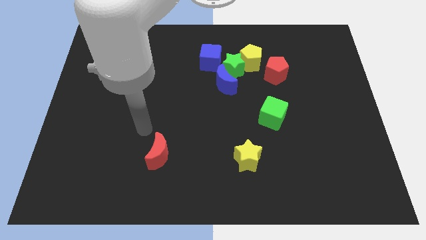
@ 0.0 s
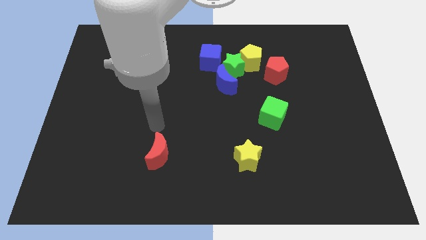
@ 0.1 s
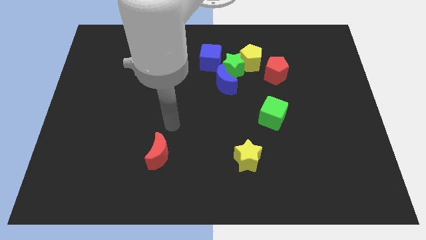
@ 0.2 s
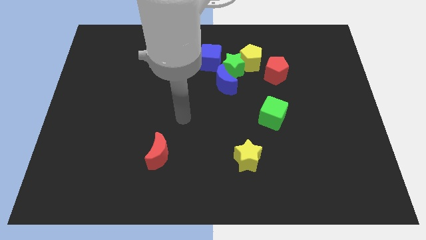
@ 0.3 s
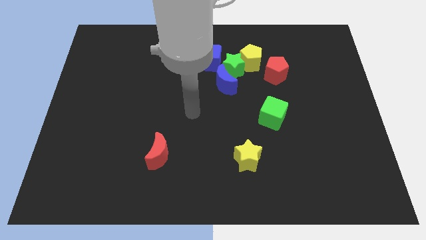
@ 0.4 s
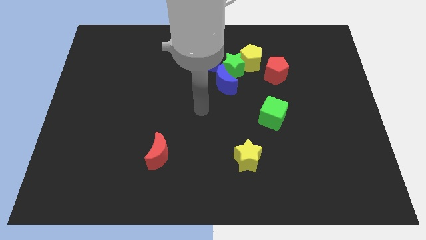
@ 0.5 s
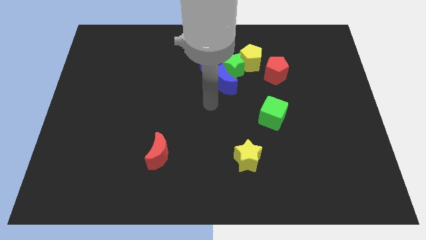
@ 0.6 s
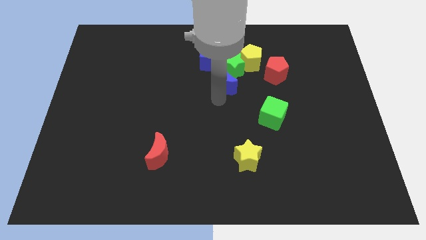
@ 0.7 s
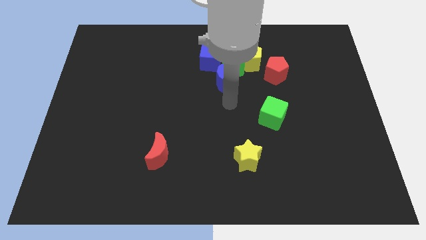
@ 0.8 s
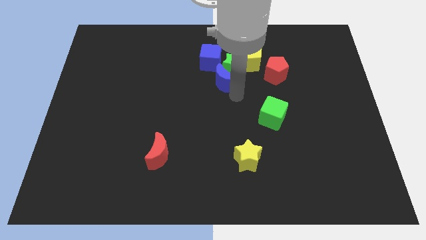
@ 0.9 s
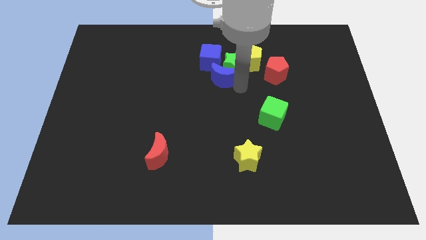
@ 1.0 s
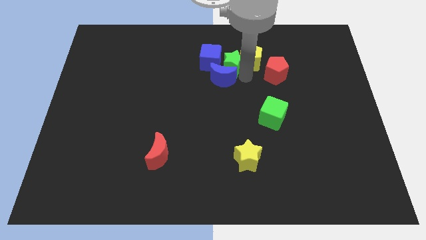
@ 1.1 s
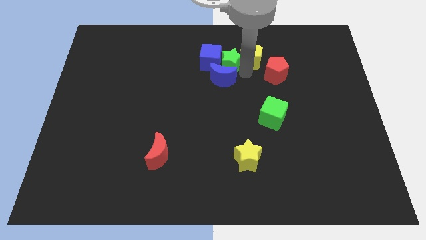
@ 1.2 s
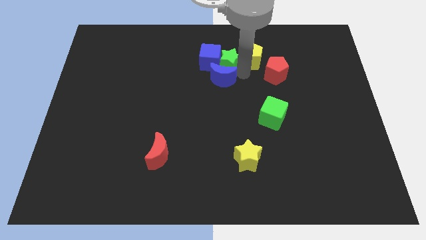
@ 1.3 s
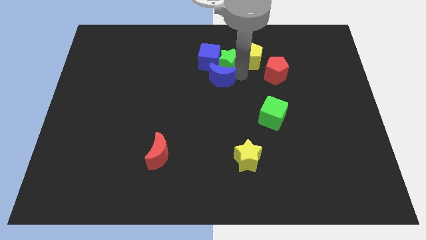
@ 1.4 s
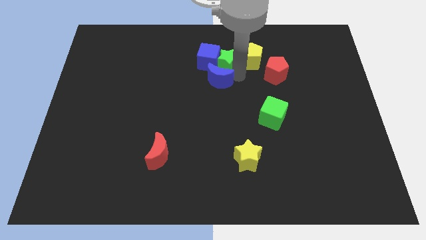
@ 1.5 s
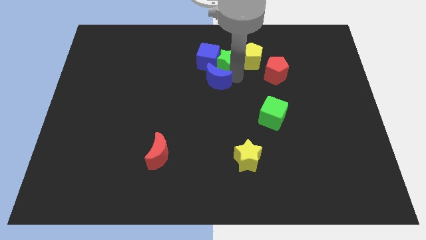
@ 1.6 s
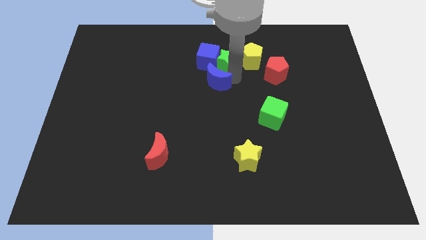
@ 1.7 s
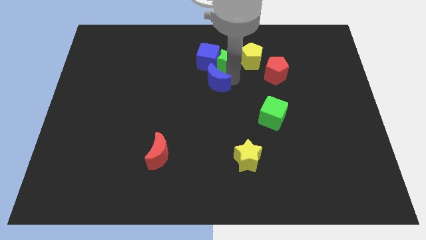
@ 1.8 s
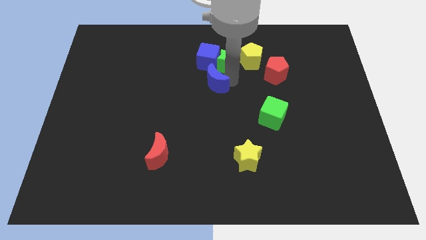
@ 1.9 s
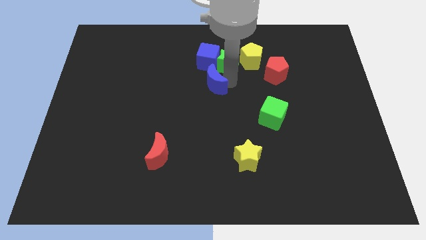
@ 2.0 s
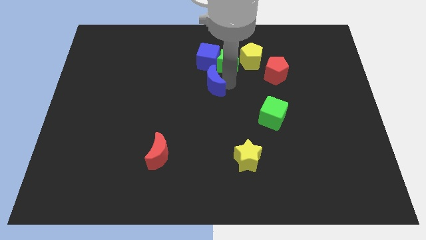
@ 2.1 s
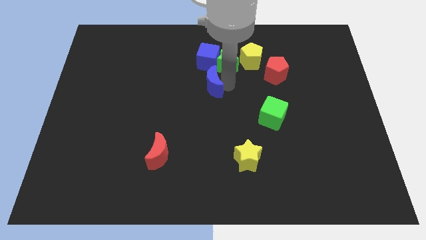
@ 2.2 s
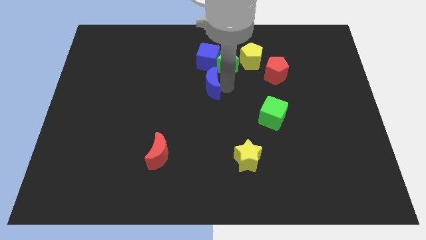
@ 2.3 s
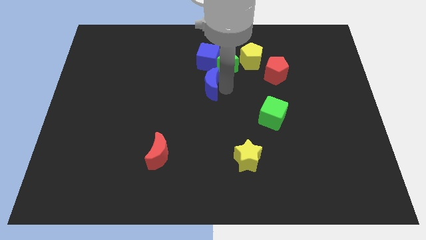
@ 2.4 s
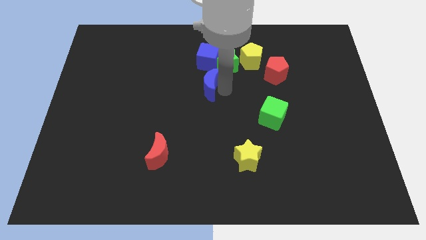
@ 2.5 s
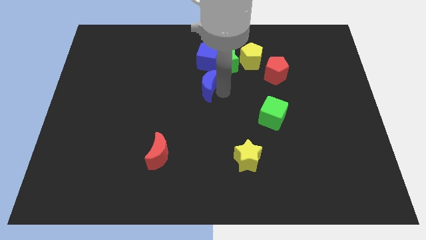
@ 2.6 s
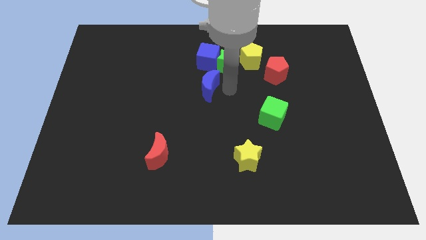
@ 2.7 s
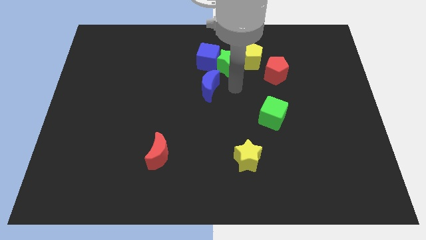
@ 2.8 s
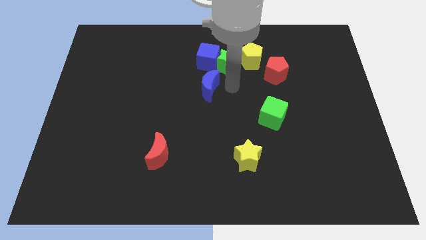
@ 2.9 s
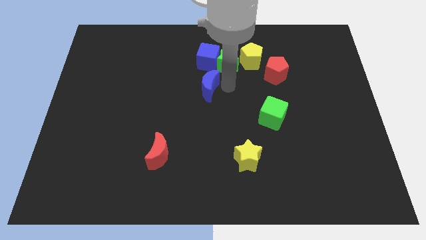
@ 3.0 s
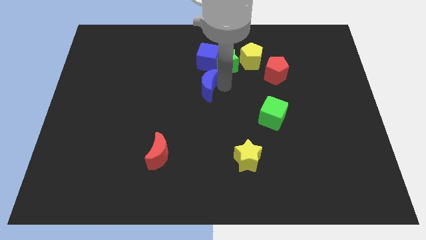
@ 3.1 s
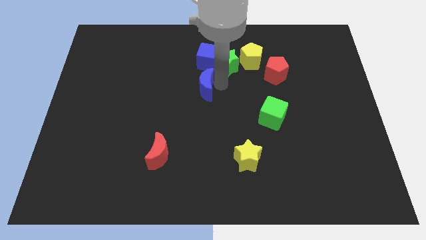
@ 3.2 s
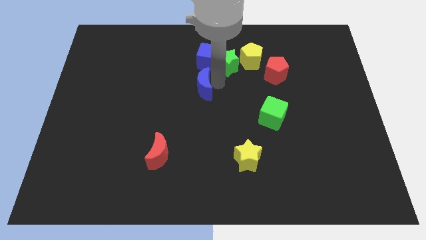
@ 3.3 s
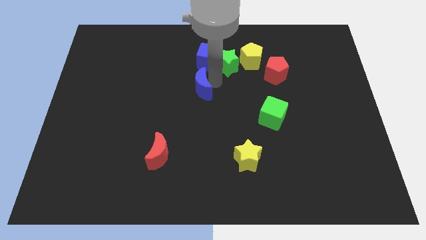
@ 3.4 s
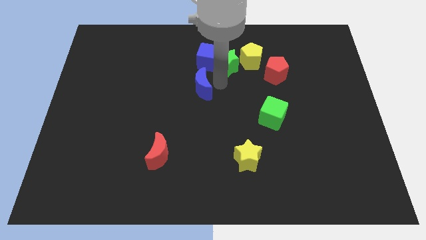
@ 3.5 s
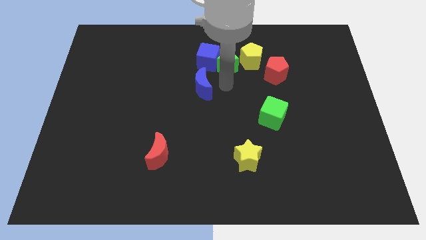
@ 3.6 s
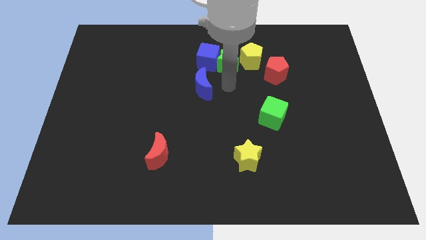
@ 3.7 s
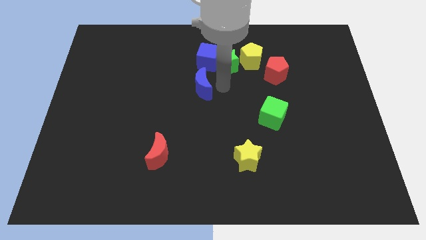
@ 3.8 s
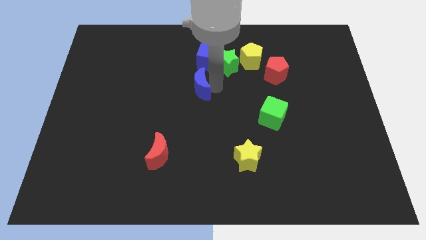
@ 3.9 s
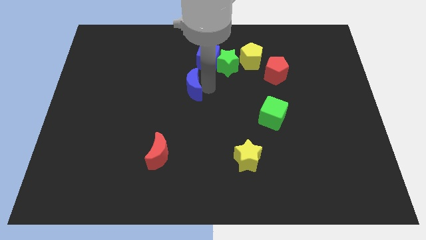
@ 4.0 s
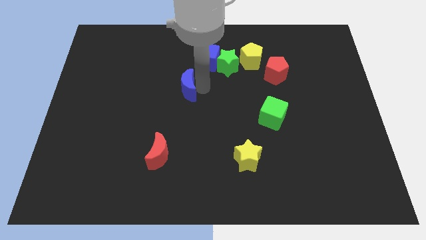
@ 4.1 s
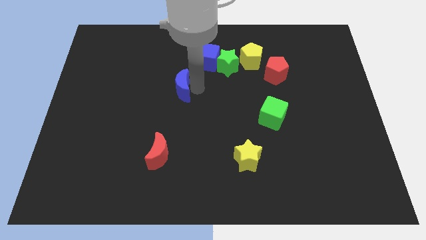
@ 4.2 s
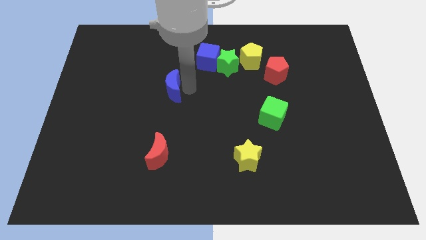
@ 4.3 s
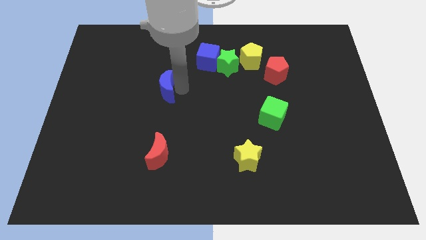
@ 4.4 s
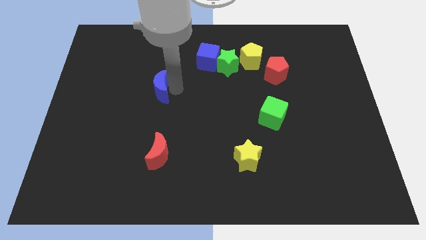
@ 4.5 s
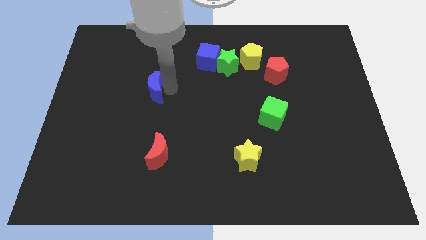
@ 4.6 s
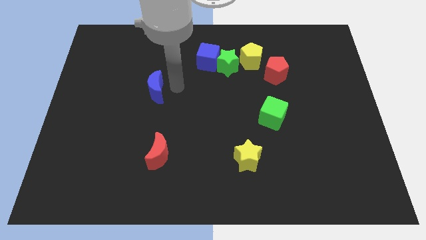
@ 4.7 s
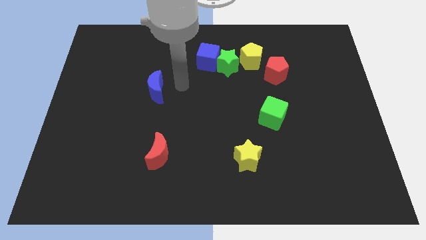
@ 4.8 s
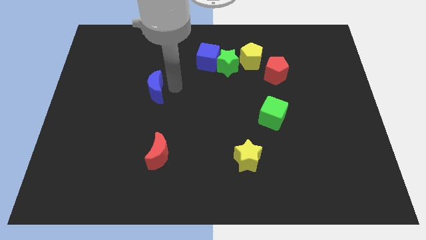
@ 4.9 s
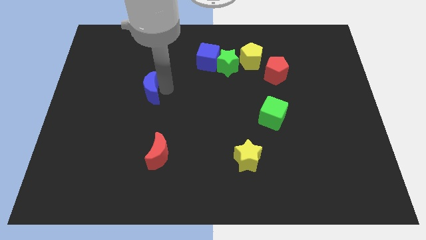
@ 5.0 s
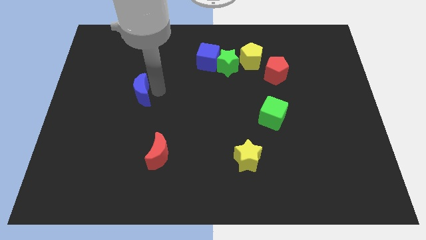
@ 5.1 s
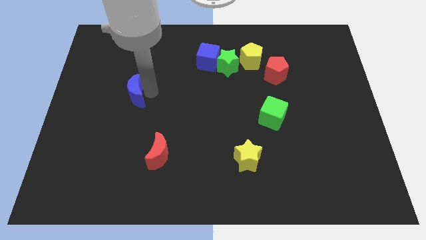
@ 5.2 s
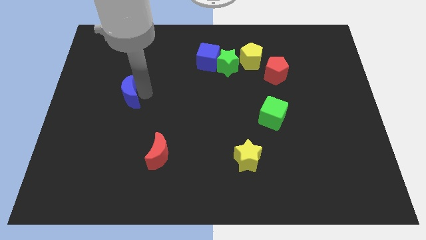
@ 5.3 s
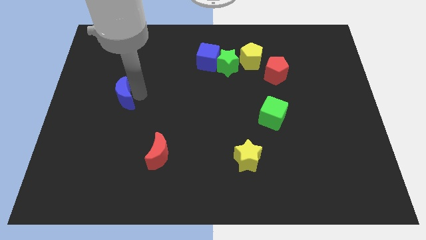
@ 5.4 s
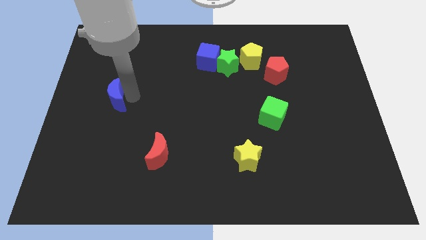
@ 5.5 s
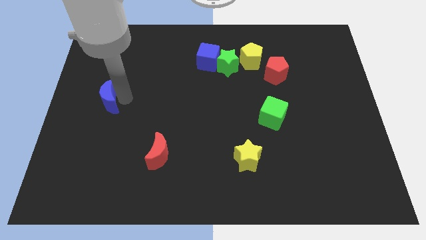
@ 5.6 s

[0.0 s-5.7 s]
put the blue moon to the center left
